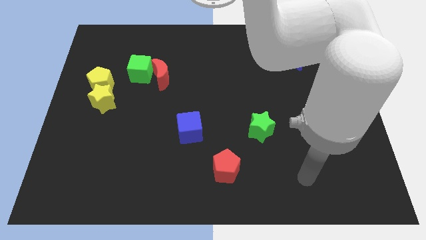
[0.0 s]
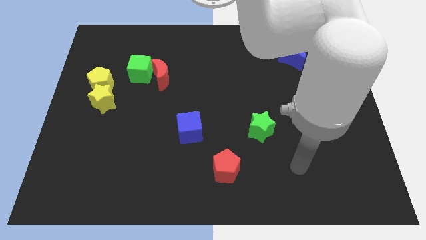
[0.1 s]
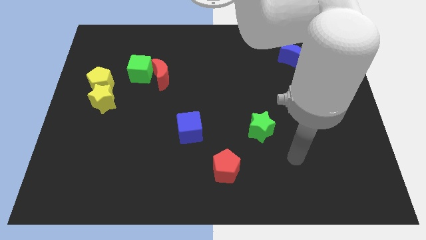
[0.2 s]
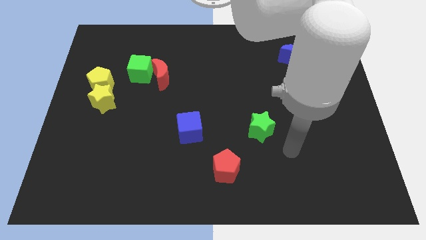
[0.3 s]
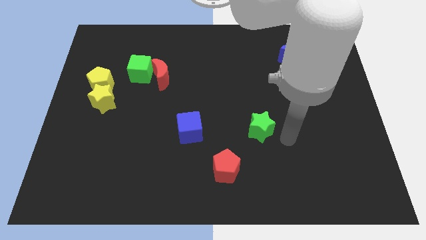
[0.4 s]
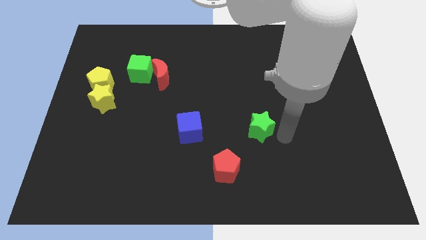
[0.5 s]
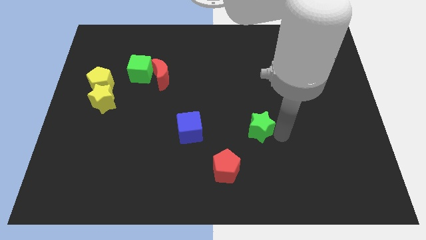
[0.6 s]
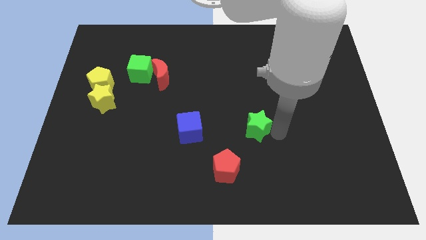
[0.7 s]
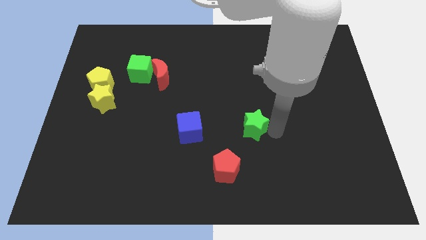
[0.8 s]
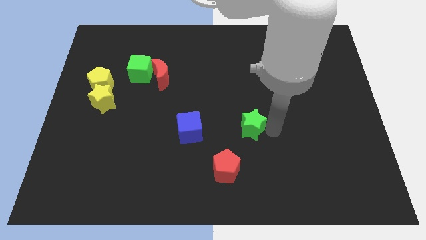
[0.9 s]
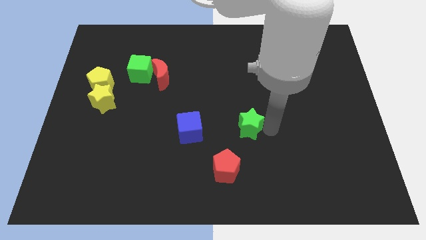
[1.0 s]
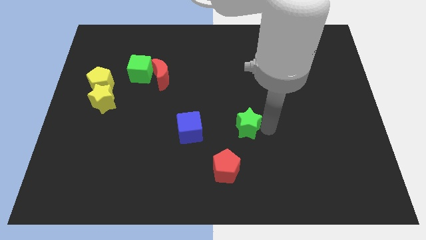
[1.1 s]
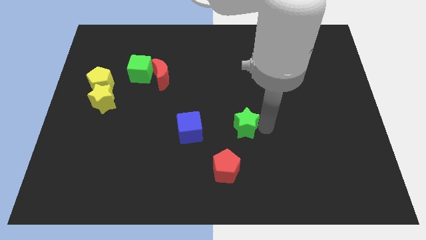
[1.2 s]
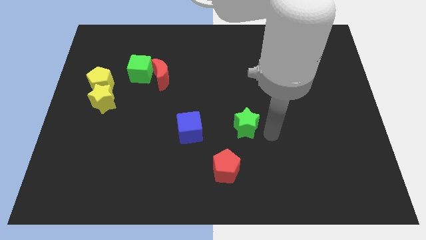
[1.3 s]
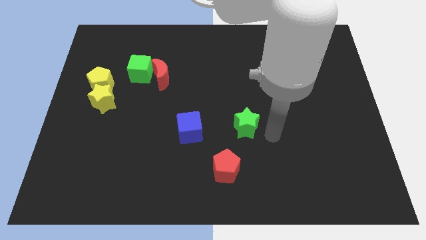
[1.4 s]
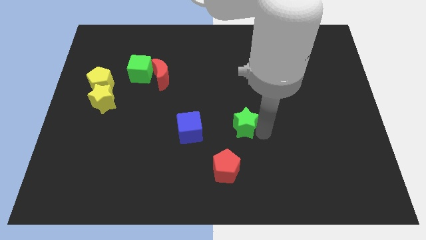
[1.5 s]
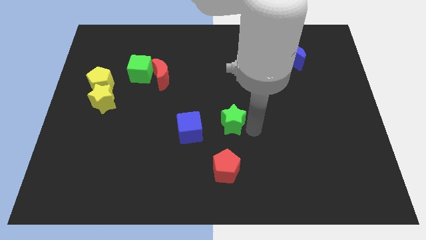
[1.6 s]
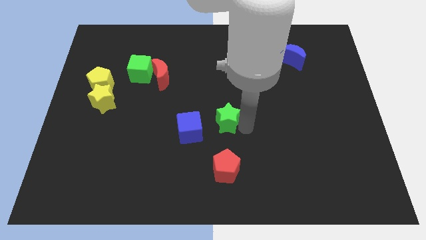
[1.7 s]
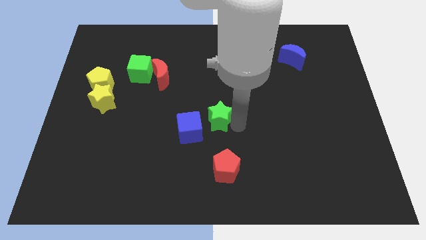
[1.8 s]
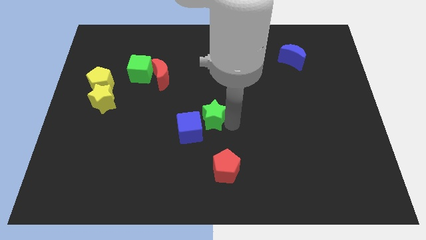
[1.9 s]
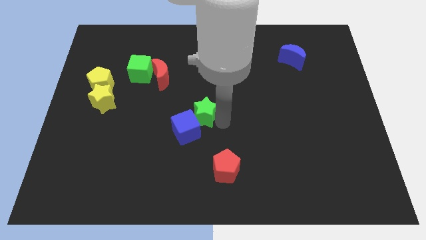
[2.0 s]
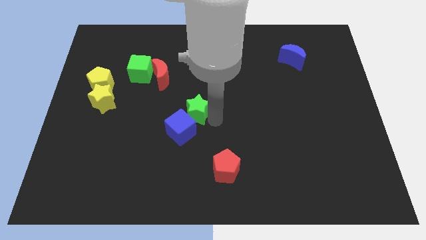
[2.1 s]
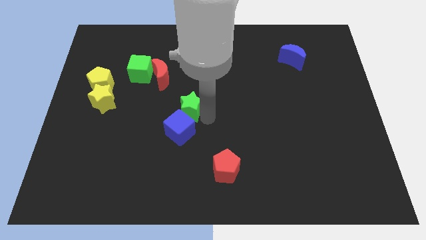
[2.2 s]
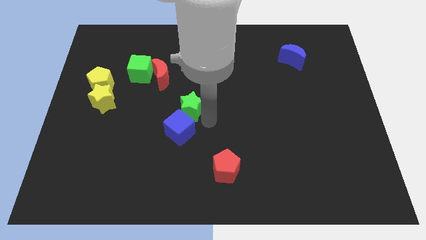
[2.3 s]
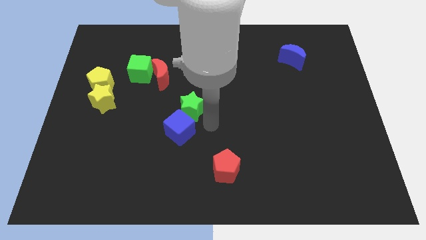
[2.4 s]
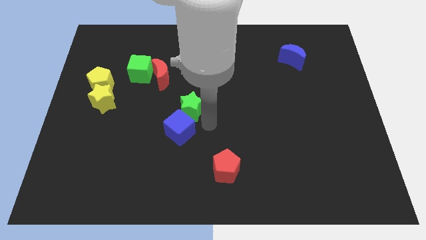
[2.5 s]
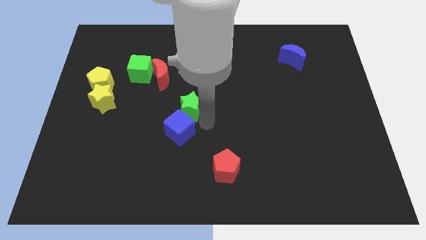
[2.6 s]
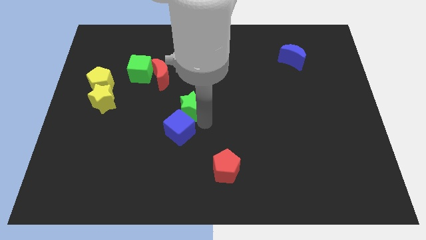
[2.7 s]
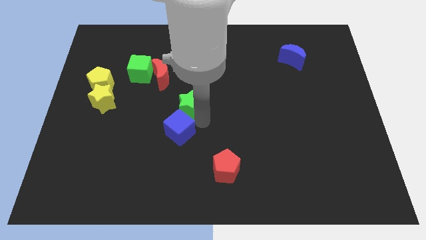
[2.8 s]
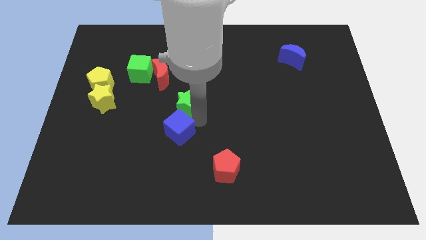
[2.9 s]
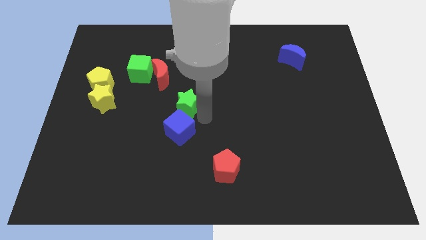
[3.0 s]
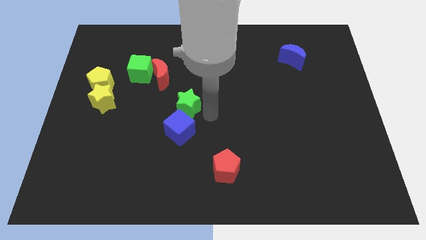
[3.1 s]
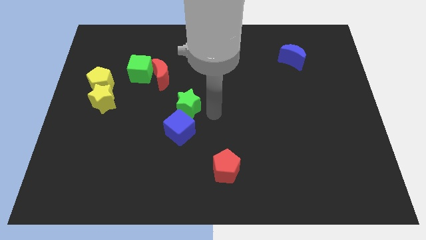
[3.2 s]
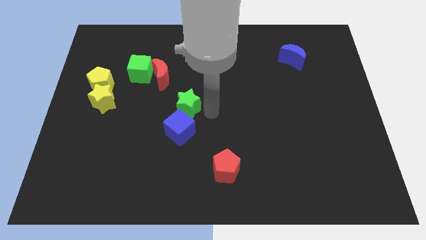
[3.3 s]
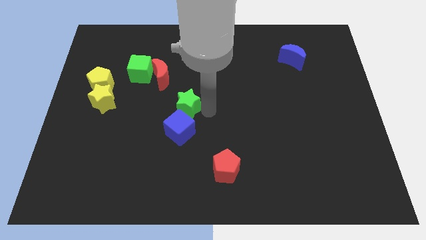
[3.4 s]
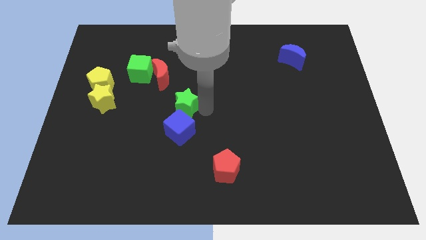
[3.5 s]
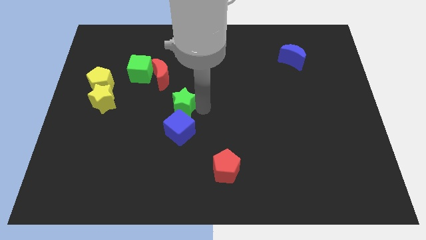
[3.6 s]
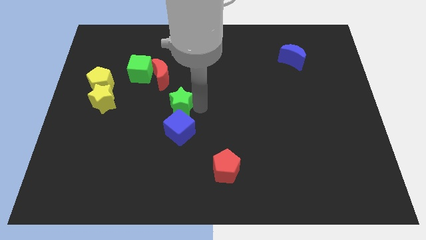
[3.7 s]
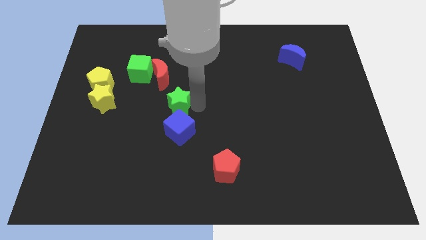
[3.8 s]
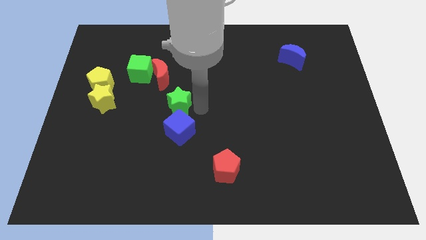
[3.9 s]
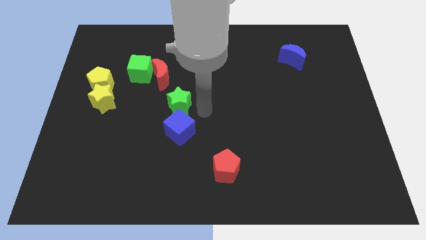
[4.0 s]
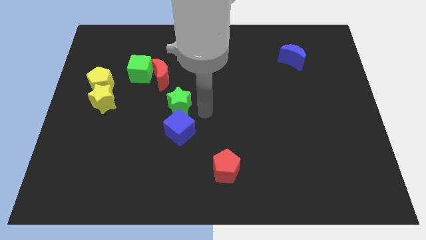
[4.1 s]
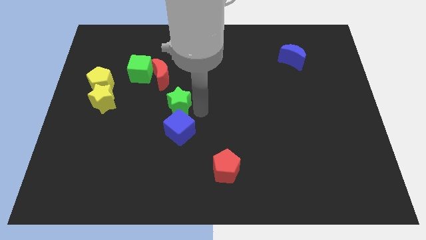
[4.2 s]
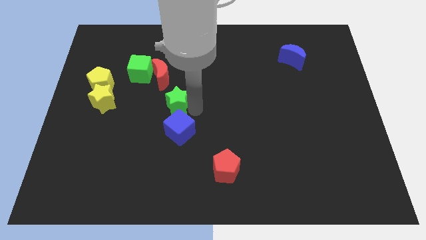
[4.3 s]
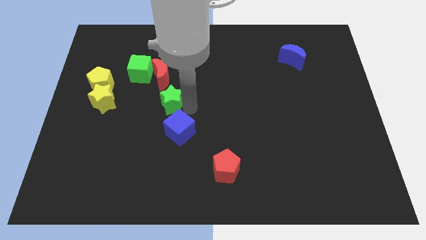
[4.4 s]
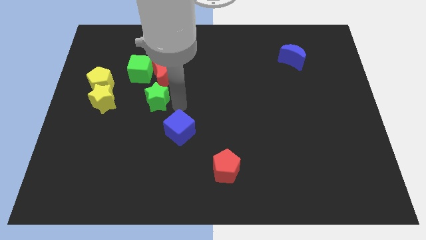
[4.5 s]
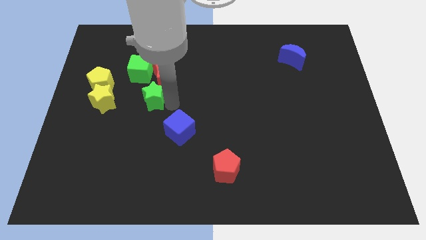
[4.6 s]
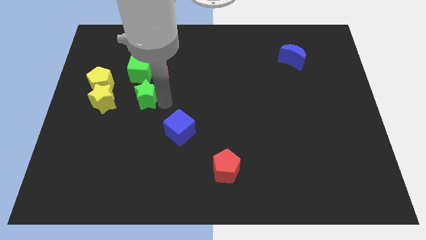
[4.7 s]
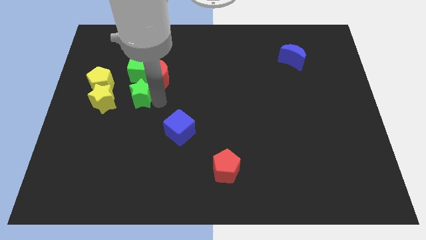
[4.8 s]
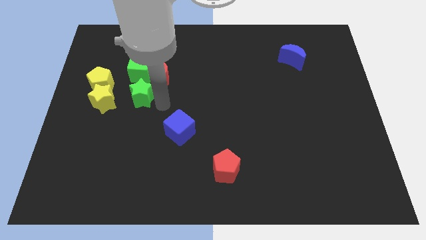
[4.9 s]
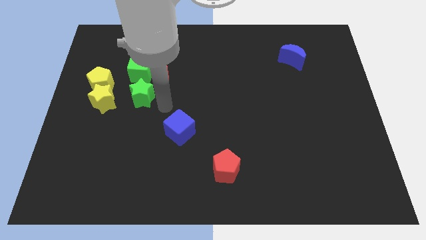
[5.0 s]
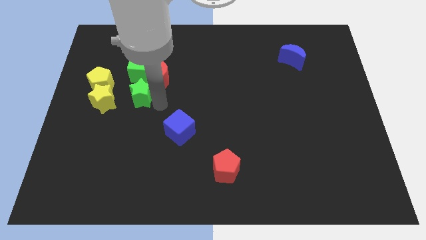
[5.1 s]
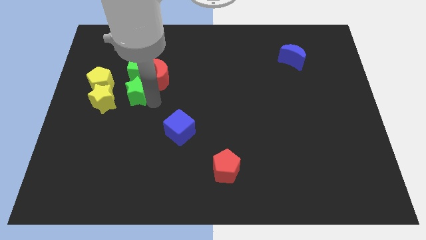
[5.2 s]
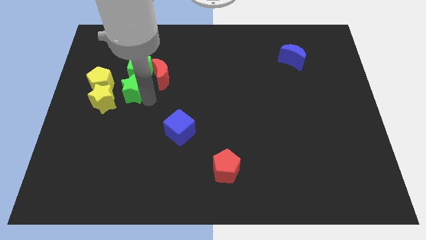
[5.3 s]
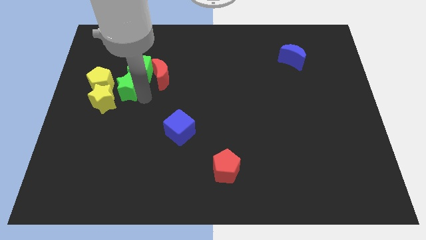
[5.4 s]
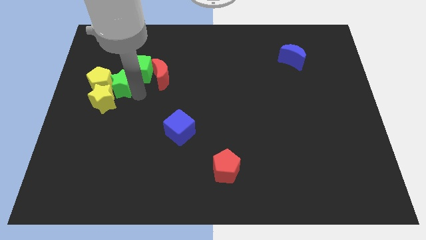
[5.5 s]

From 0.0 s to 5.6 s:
slide the green star towards the yellow pentagon
